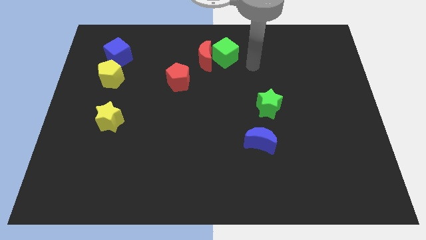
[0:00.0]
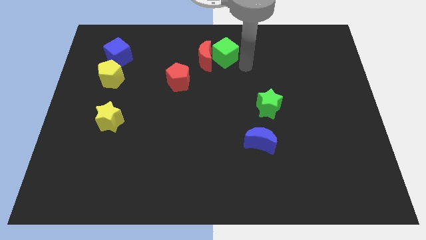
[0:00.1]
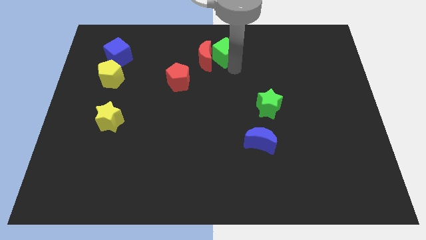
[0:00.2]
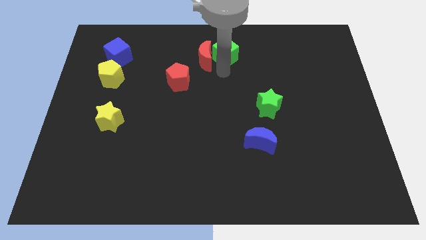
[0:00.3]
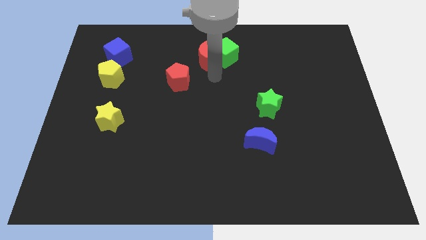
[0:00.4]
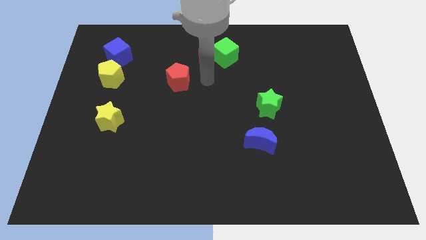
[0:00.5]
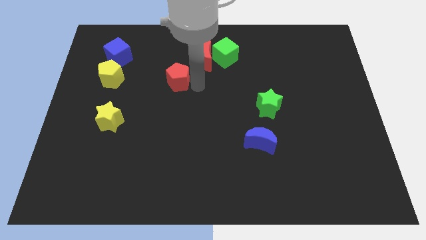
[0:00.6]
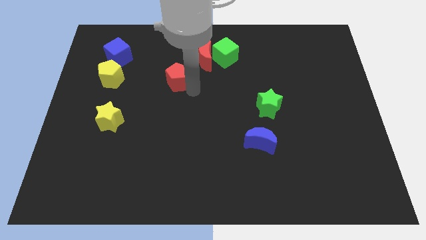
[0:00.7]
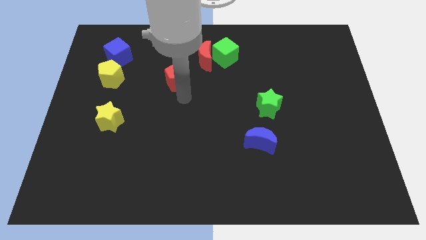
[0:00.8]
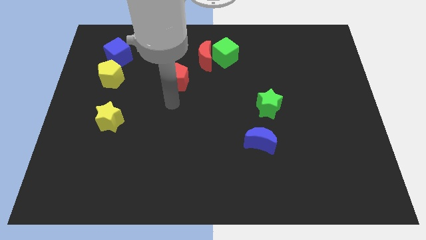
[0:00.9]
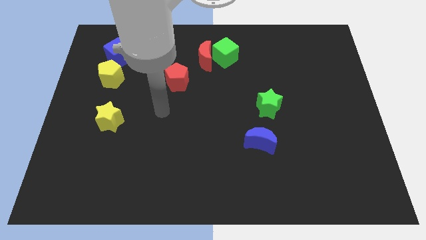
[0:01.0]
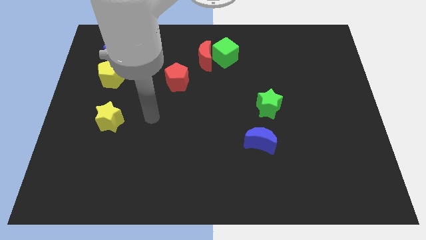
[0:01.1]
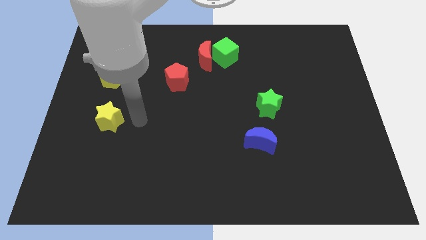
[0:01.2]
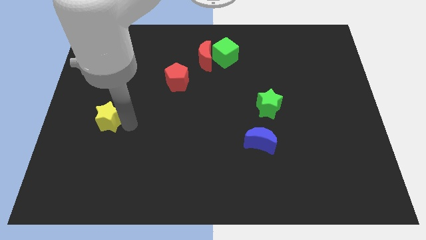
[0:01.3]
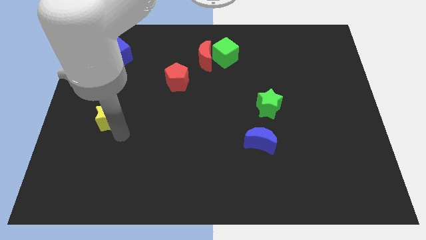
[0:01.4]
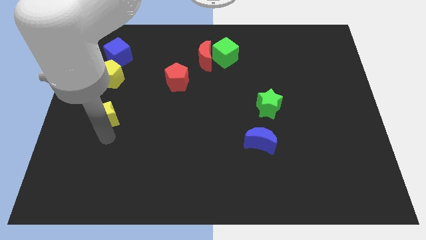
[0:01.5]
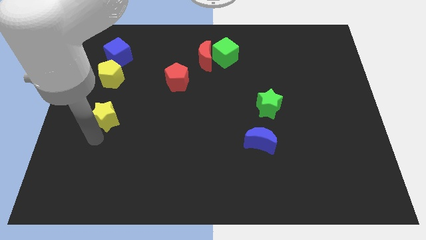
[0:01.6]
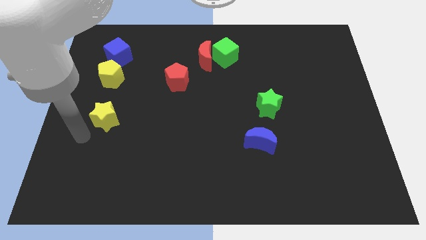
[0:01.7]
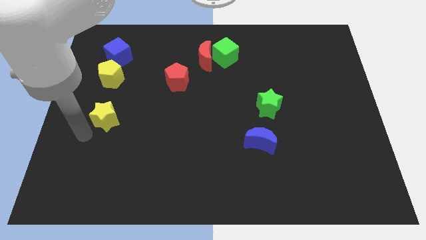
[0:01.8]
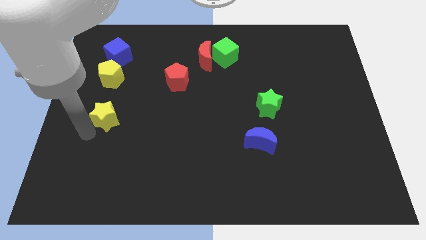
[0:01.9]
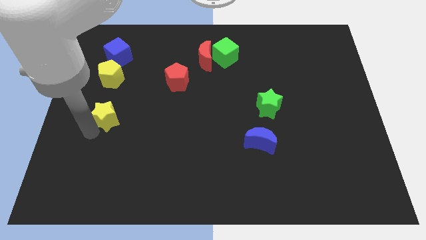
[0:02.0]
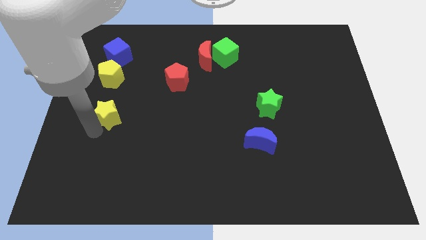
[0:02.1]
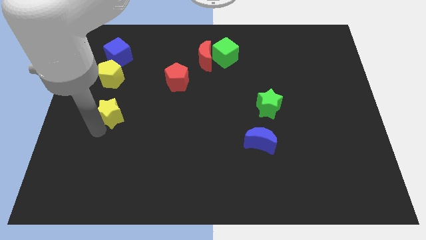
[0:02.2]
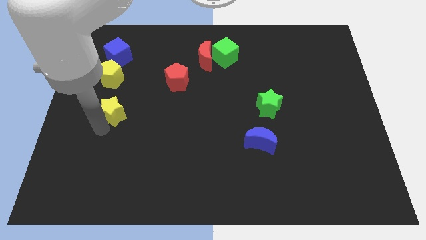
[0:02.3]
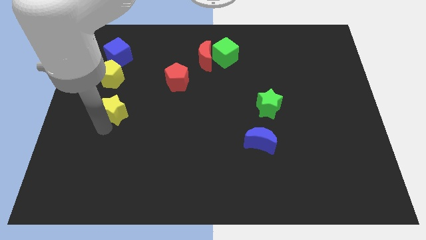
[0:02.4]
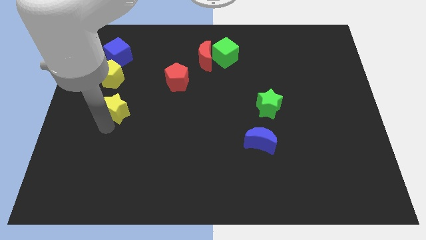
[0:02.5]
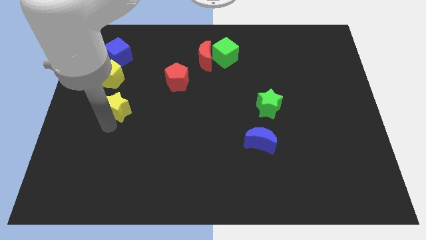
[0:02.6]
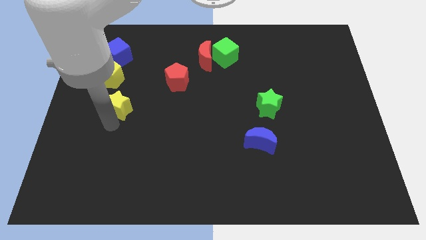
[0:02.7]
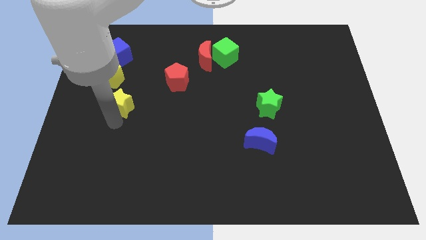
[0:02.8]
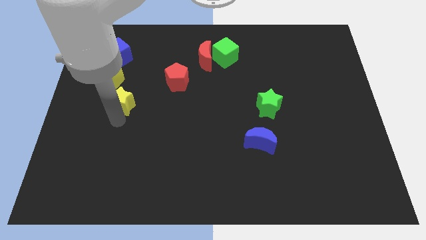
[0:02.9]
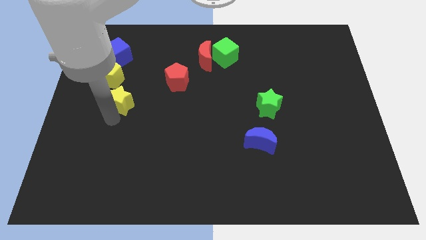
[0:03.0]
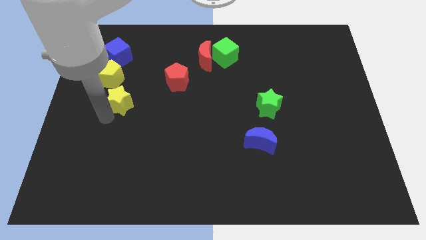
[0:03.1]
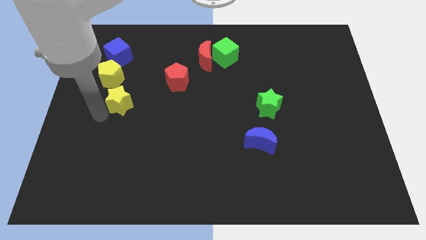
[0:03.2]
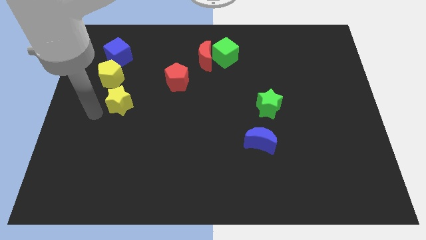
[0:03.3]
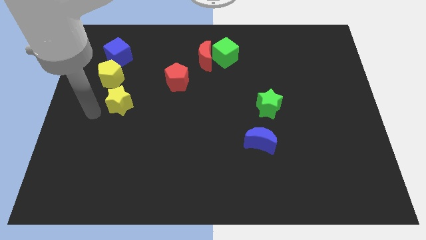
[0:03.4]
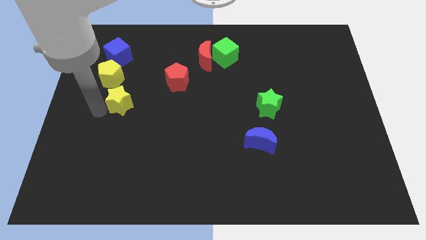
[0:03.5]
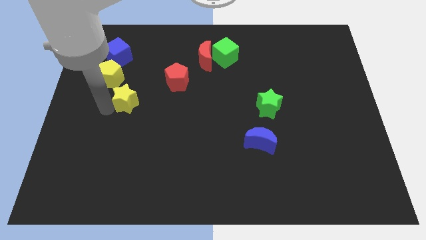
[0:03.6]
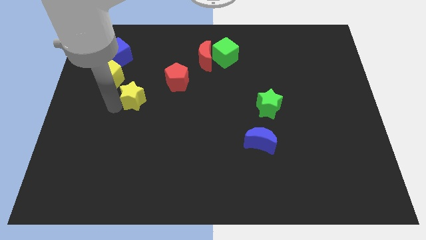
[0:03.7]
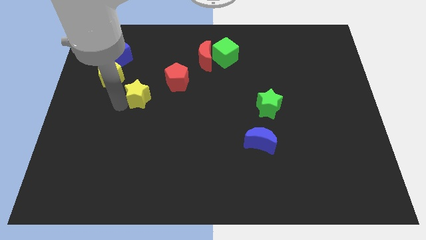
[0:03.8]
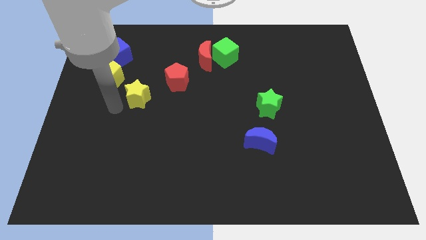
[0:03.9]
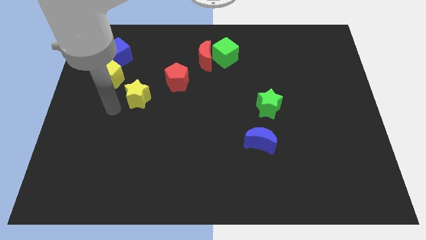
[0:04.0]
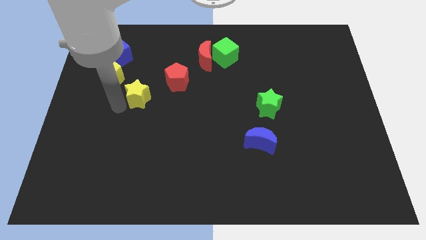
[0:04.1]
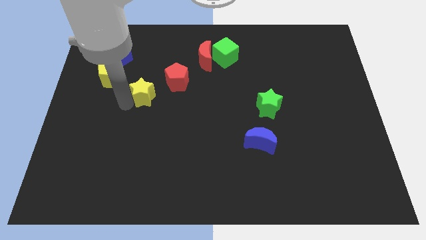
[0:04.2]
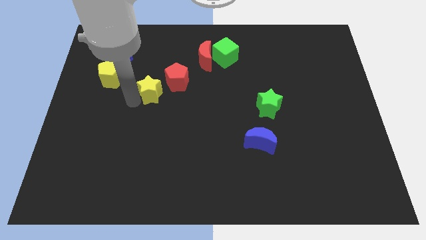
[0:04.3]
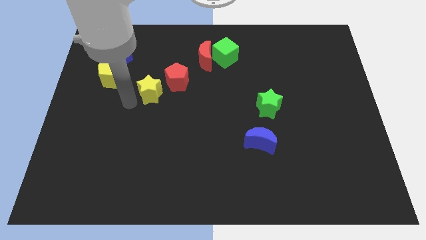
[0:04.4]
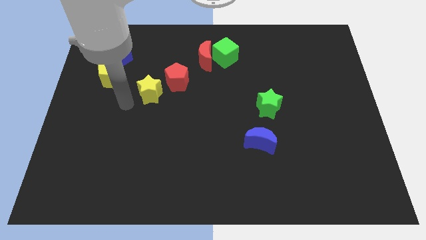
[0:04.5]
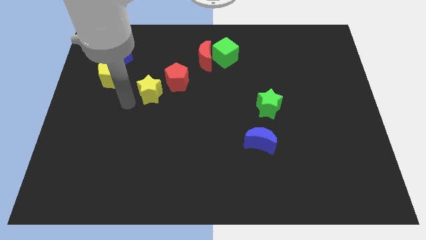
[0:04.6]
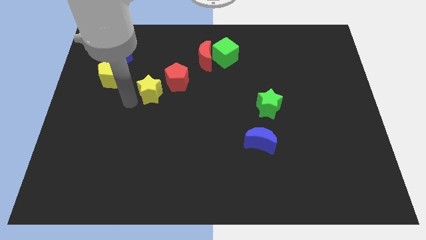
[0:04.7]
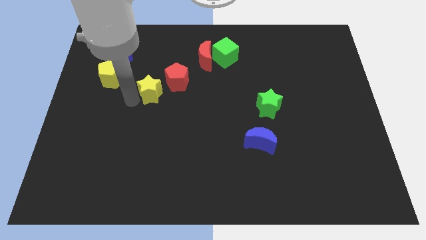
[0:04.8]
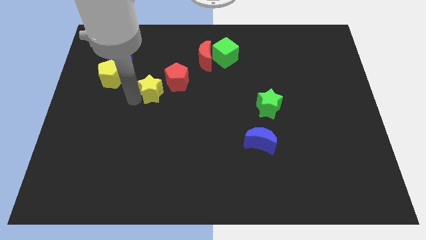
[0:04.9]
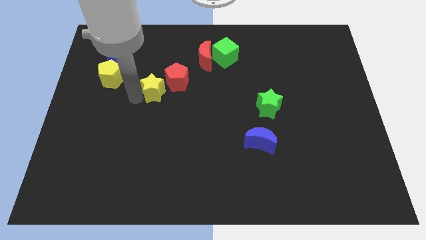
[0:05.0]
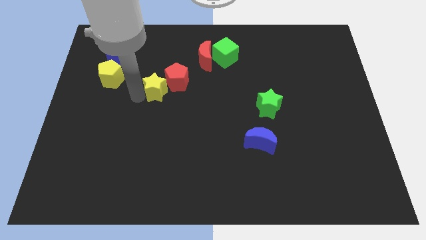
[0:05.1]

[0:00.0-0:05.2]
put the yellow star to the red pentagon

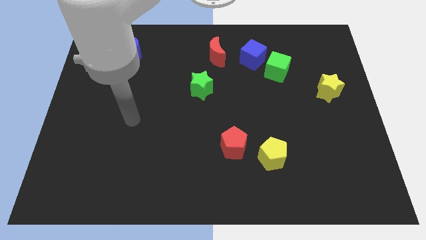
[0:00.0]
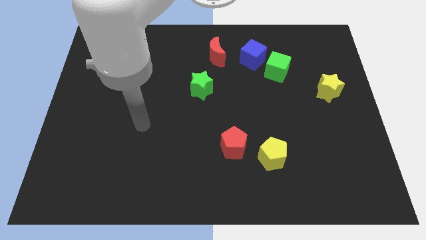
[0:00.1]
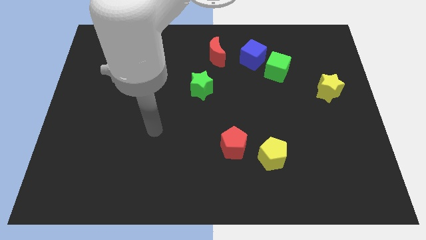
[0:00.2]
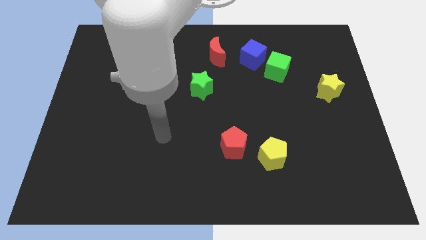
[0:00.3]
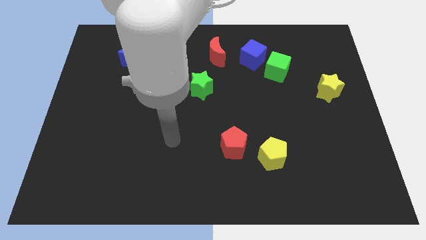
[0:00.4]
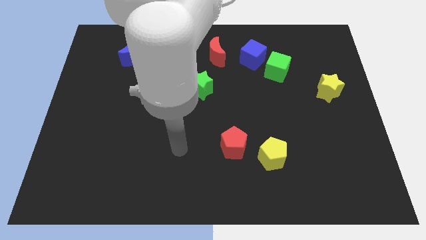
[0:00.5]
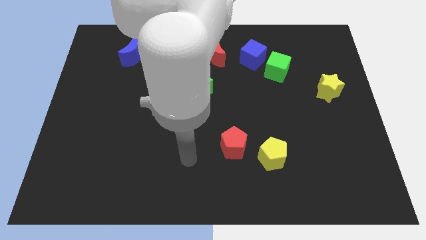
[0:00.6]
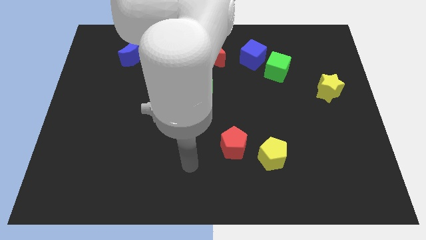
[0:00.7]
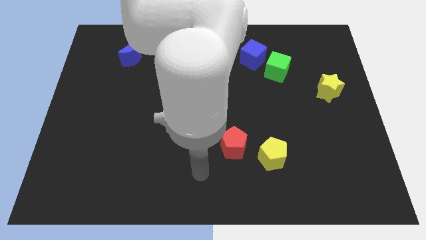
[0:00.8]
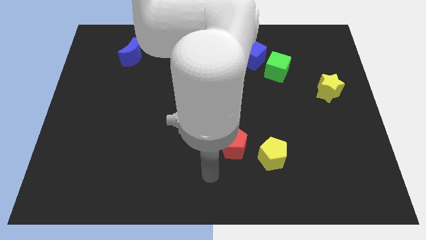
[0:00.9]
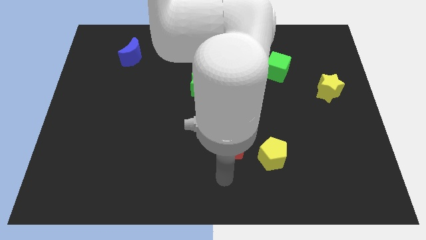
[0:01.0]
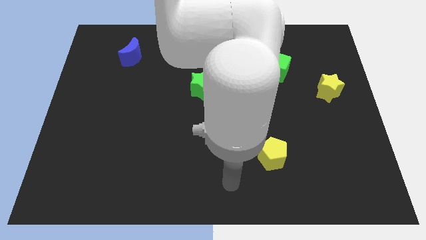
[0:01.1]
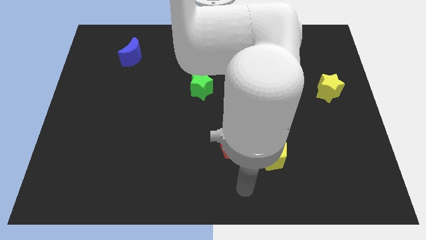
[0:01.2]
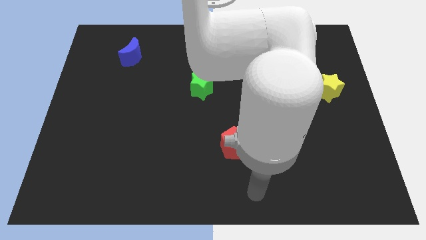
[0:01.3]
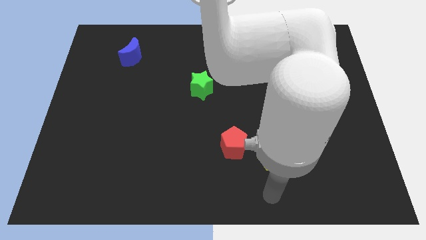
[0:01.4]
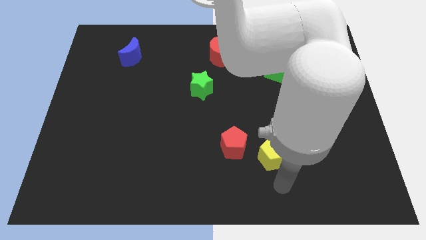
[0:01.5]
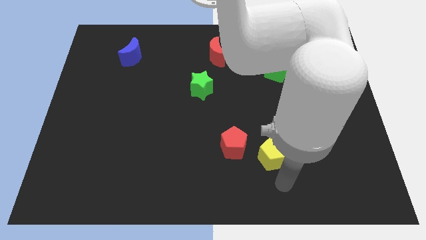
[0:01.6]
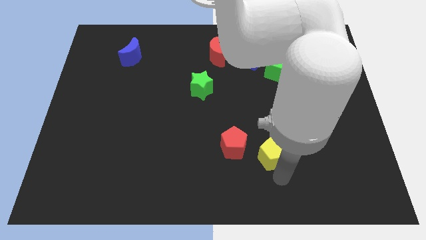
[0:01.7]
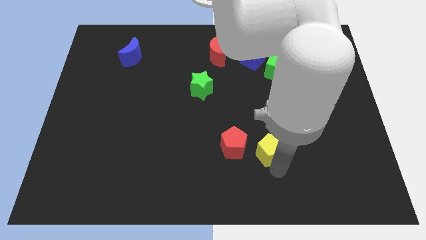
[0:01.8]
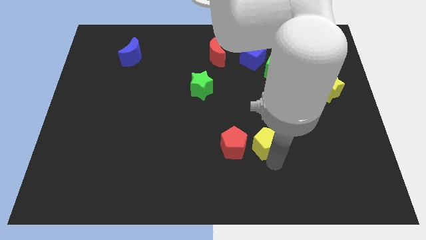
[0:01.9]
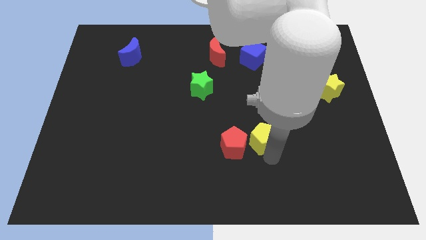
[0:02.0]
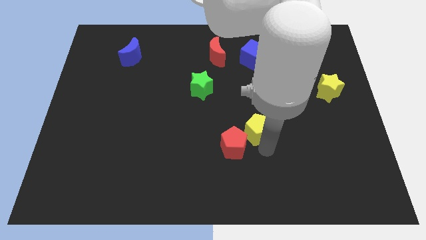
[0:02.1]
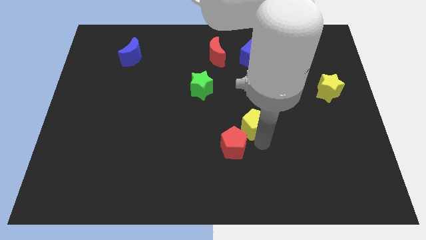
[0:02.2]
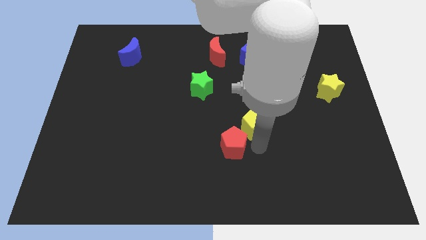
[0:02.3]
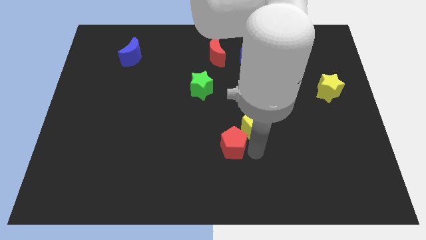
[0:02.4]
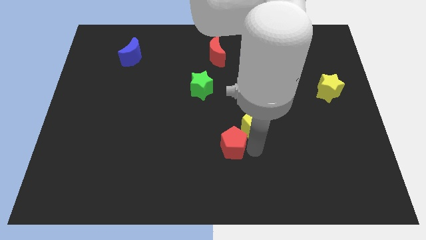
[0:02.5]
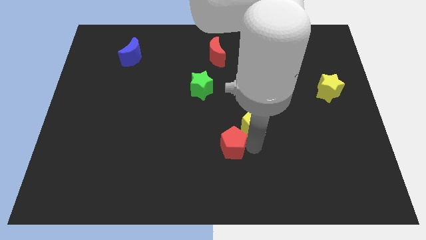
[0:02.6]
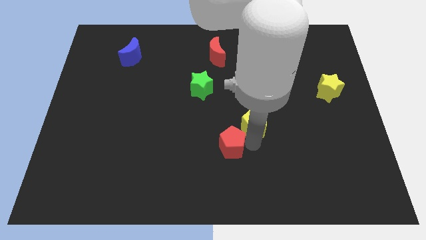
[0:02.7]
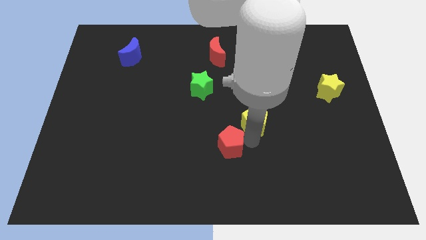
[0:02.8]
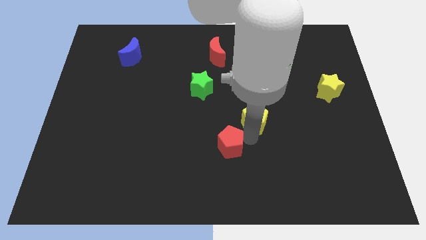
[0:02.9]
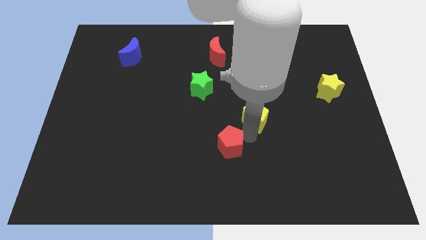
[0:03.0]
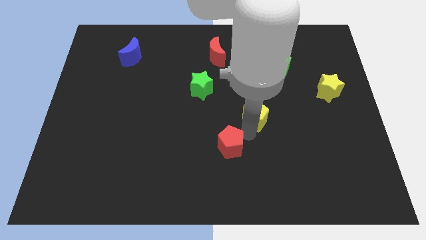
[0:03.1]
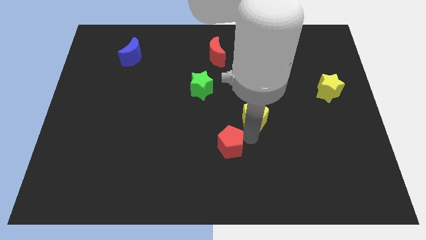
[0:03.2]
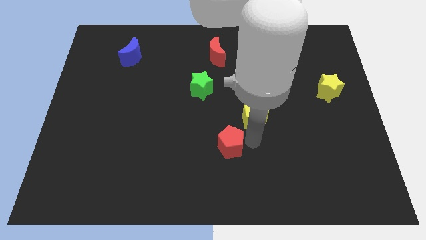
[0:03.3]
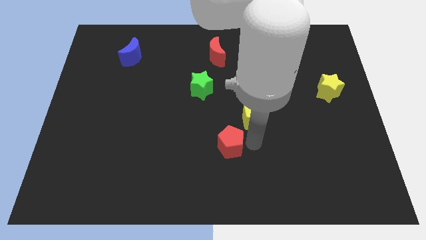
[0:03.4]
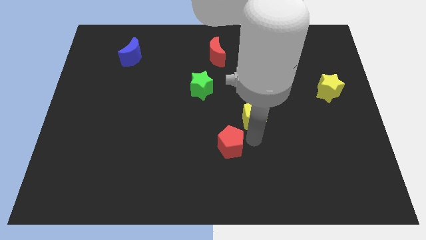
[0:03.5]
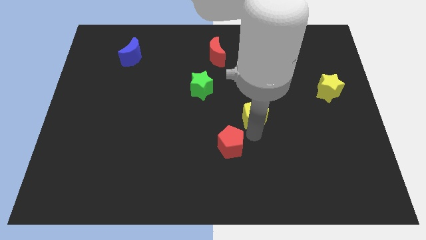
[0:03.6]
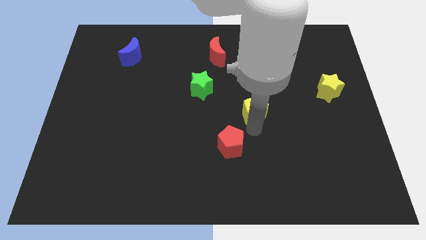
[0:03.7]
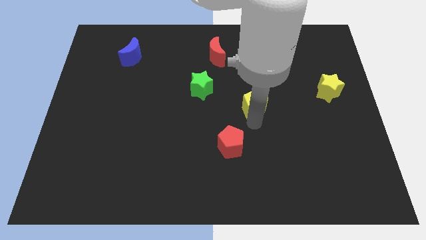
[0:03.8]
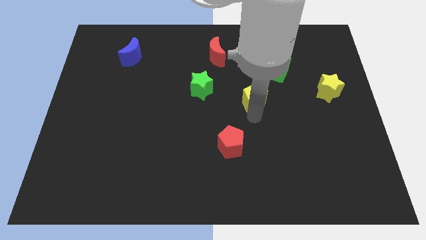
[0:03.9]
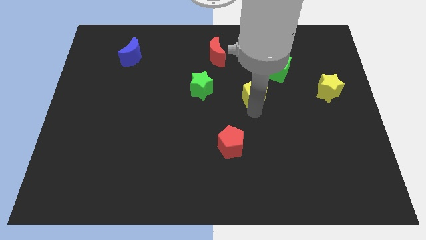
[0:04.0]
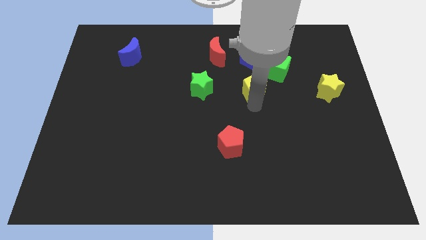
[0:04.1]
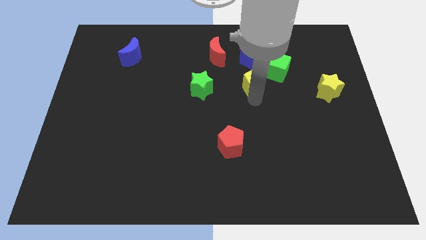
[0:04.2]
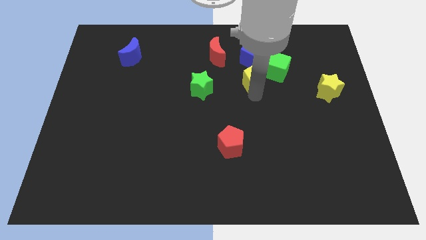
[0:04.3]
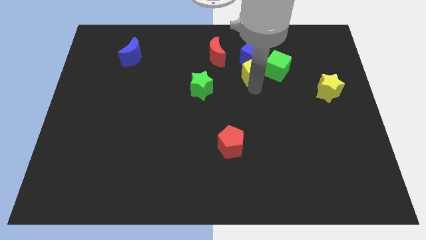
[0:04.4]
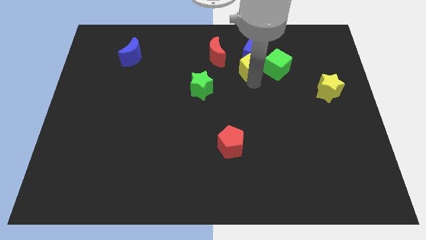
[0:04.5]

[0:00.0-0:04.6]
push the yellow pentagon to the blue cube
